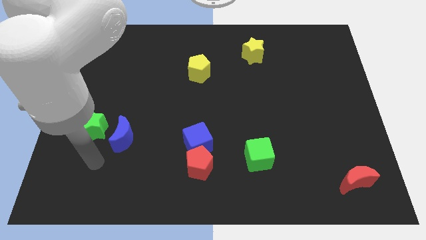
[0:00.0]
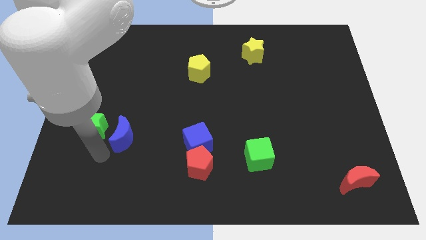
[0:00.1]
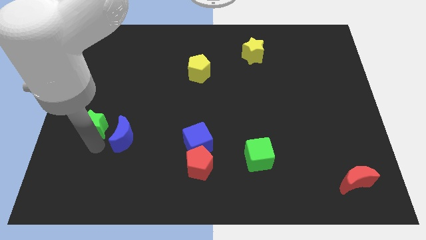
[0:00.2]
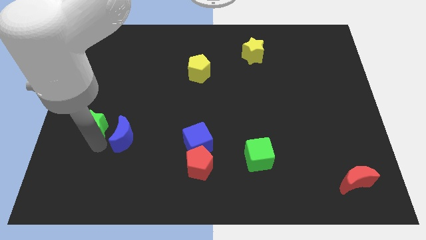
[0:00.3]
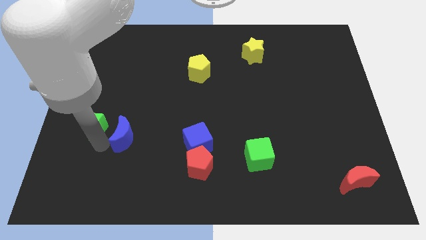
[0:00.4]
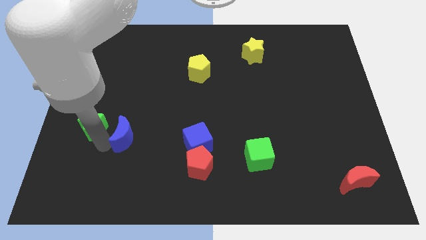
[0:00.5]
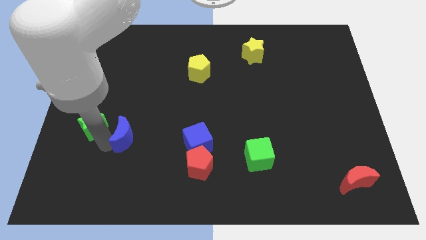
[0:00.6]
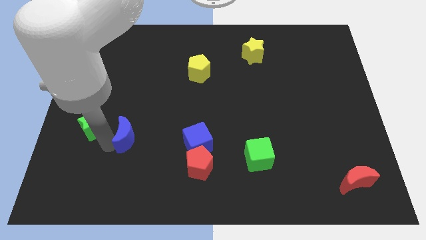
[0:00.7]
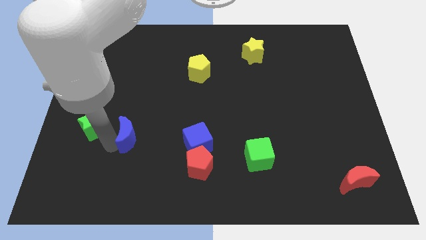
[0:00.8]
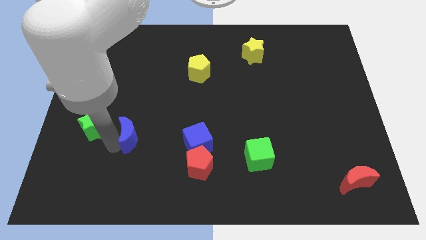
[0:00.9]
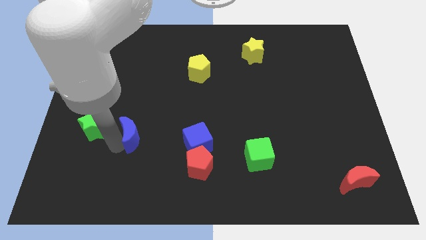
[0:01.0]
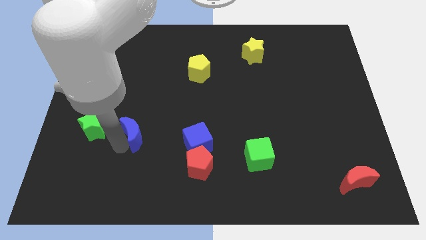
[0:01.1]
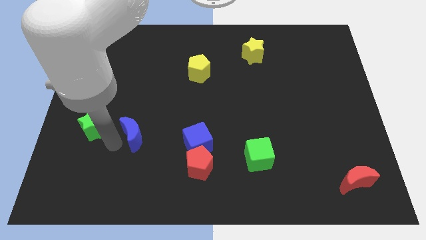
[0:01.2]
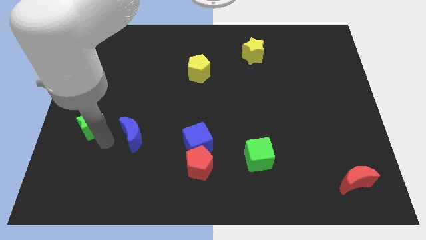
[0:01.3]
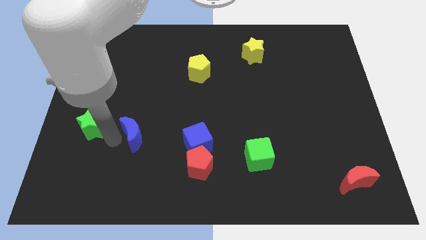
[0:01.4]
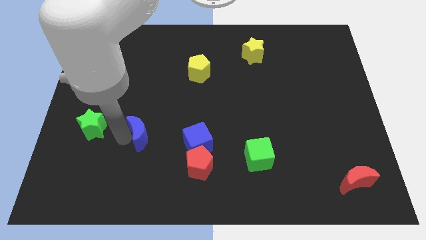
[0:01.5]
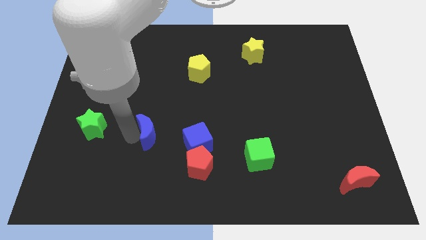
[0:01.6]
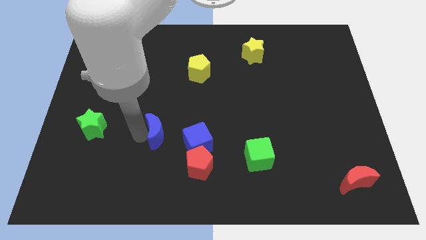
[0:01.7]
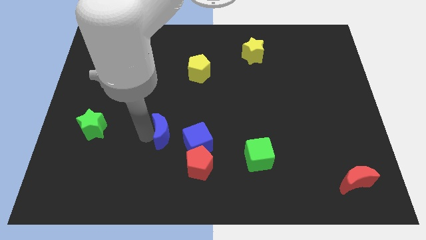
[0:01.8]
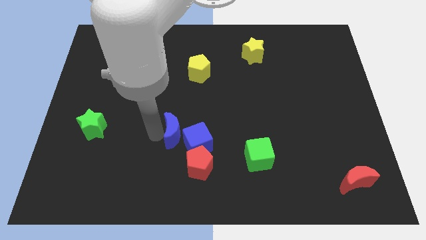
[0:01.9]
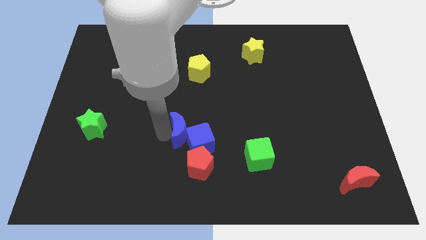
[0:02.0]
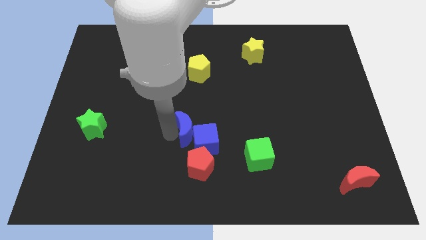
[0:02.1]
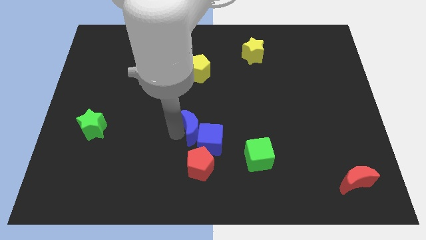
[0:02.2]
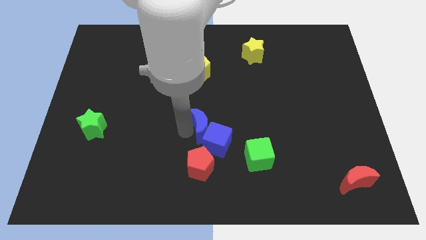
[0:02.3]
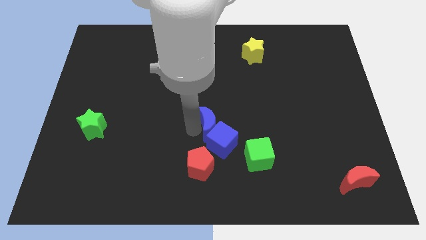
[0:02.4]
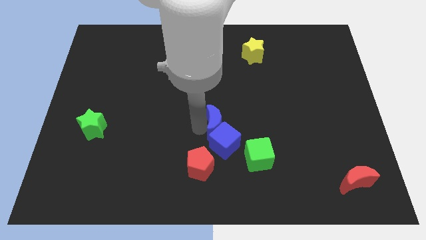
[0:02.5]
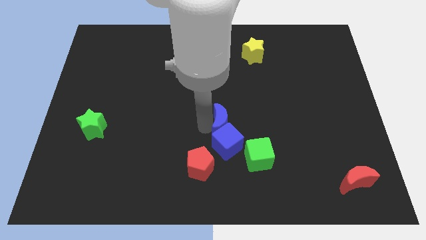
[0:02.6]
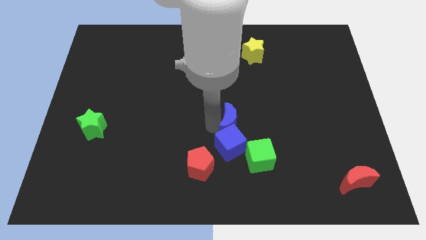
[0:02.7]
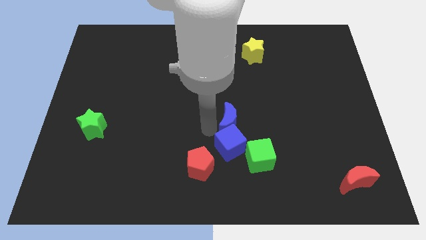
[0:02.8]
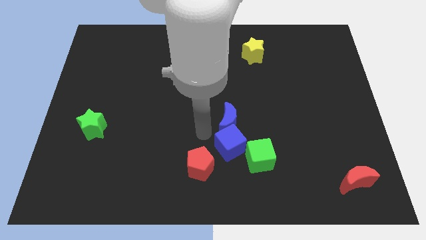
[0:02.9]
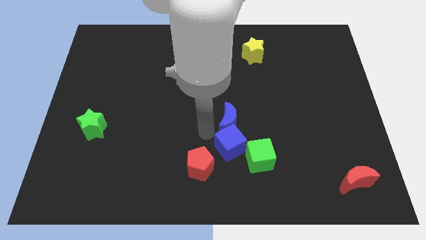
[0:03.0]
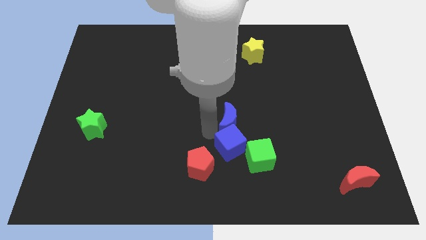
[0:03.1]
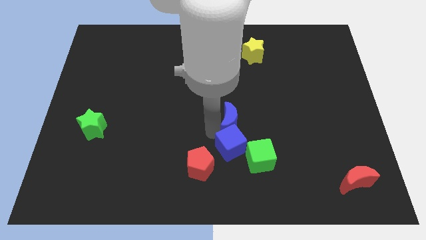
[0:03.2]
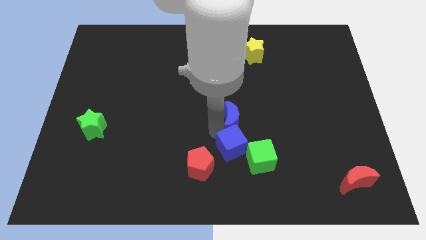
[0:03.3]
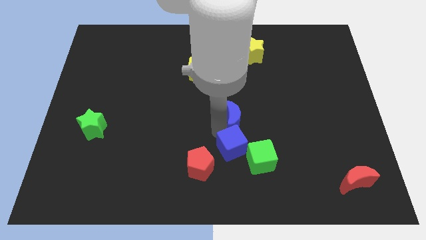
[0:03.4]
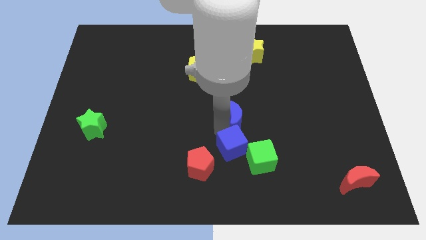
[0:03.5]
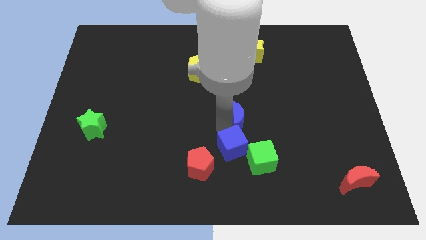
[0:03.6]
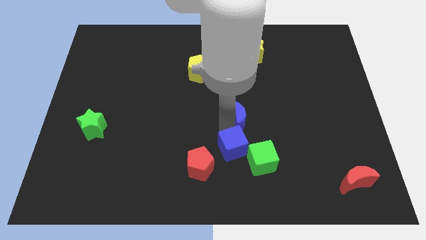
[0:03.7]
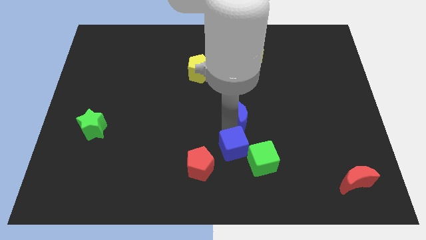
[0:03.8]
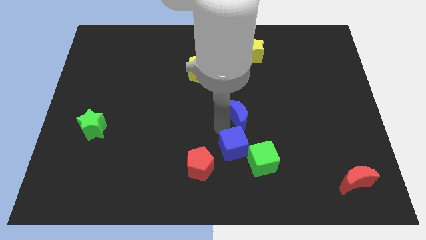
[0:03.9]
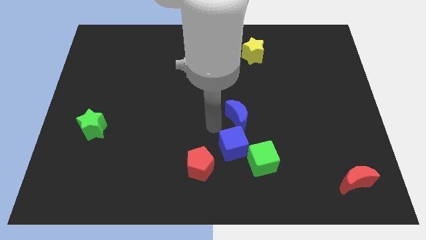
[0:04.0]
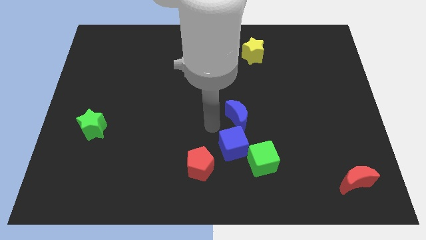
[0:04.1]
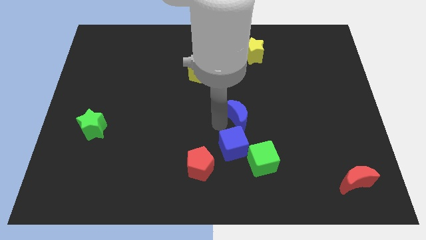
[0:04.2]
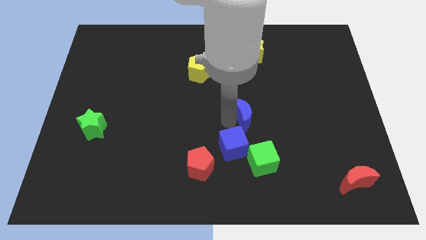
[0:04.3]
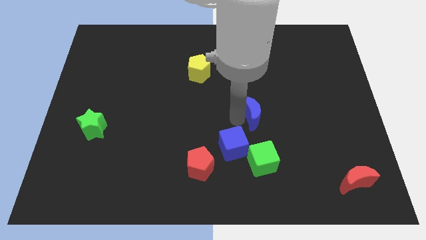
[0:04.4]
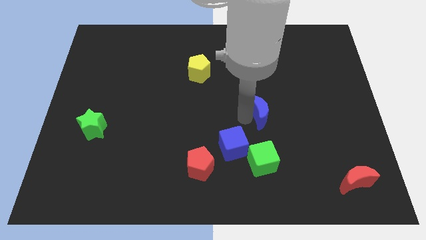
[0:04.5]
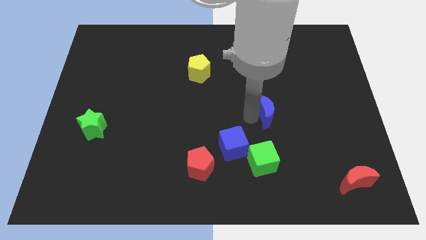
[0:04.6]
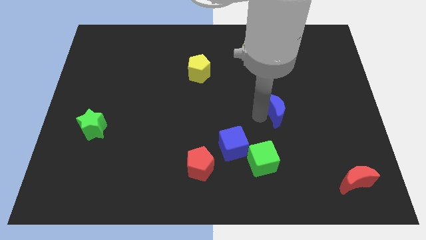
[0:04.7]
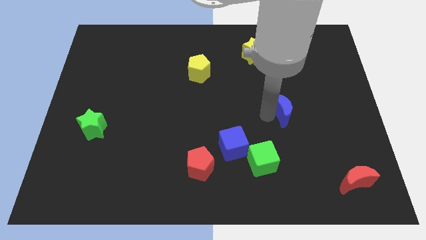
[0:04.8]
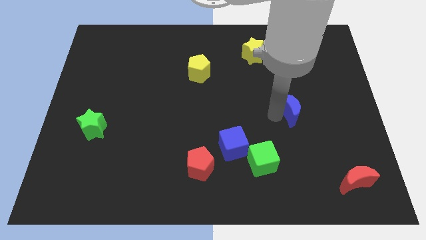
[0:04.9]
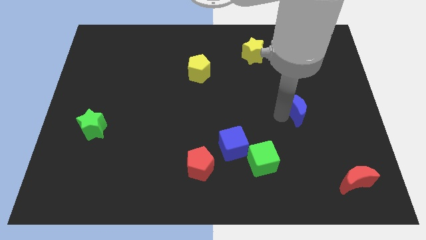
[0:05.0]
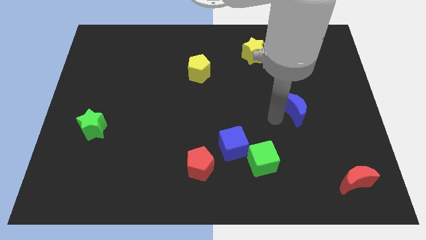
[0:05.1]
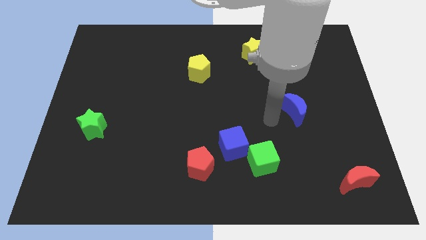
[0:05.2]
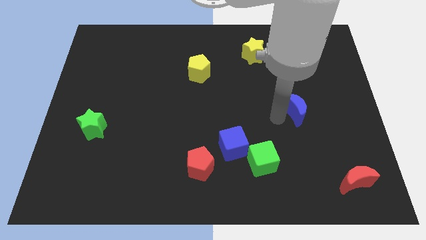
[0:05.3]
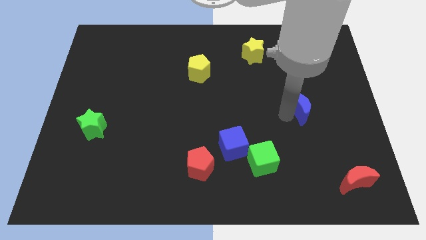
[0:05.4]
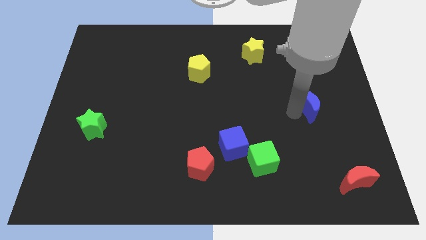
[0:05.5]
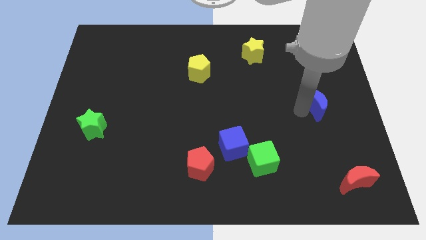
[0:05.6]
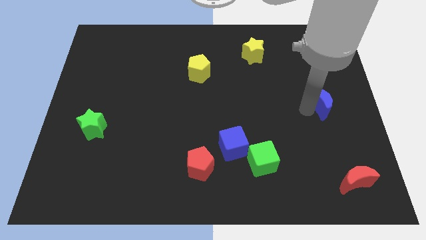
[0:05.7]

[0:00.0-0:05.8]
move the blue moon to the right side of the board

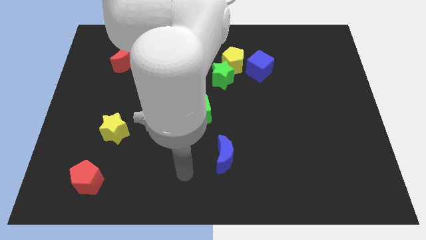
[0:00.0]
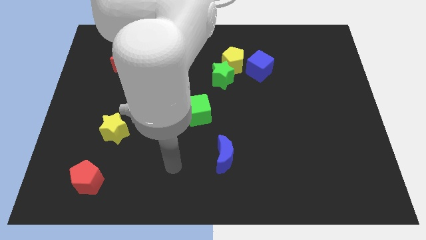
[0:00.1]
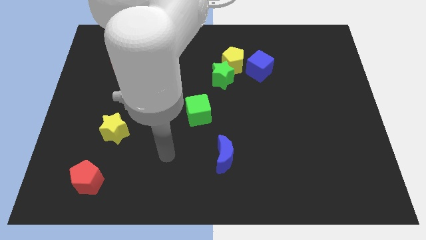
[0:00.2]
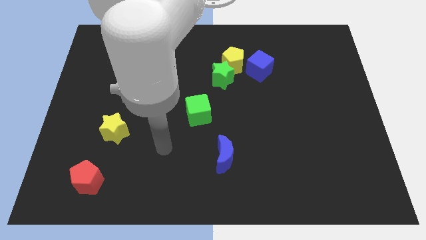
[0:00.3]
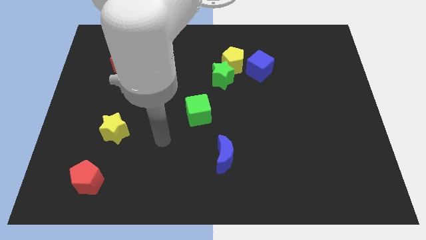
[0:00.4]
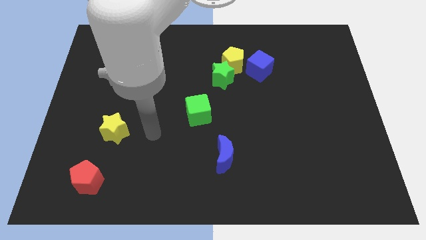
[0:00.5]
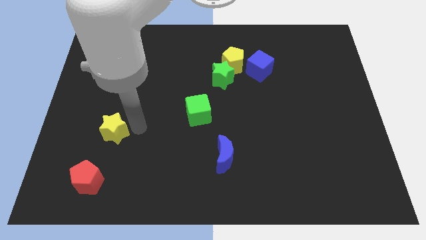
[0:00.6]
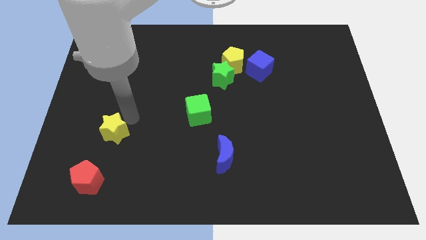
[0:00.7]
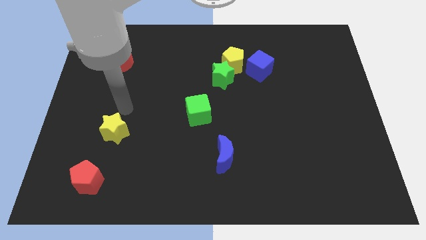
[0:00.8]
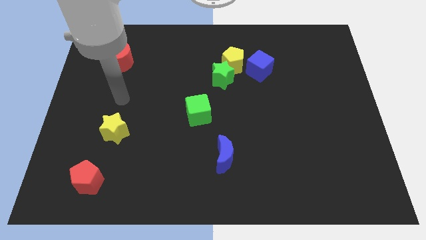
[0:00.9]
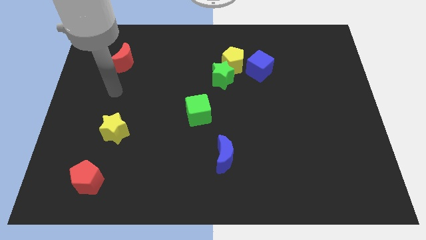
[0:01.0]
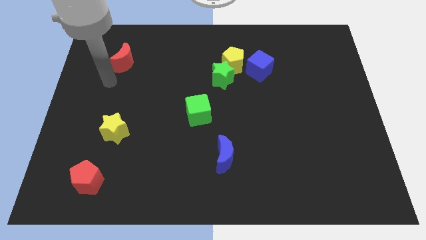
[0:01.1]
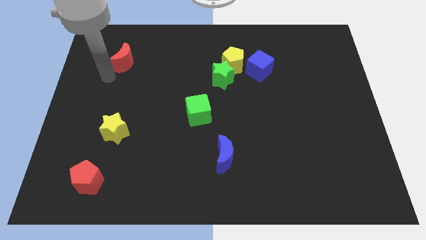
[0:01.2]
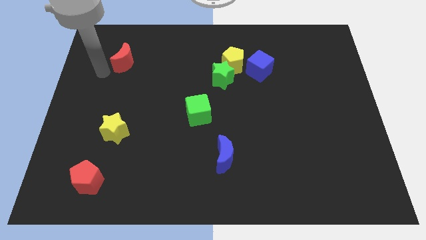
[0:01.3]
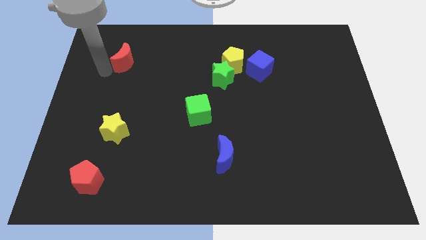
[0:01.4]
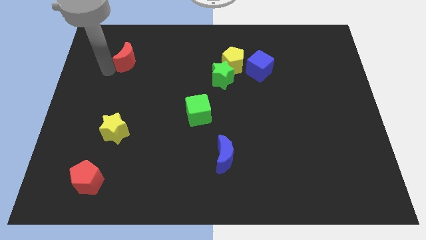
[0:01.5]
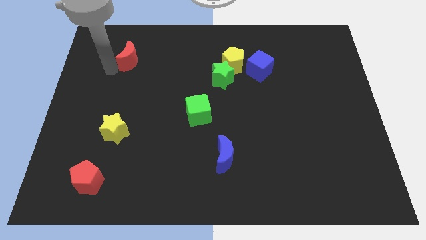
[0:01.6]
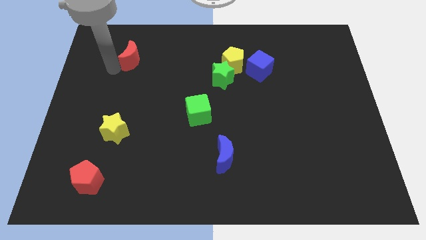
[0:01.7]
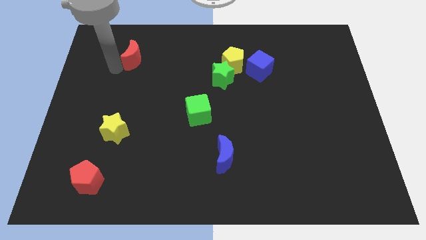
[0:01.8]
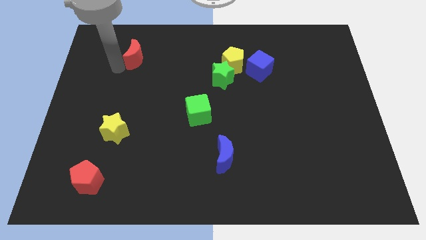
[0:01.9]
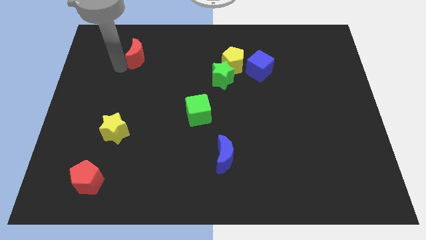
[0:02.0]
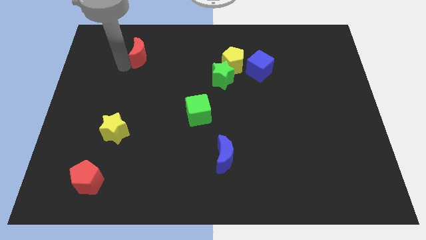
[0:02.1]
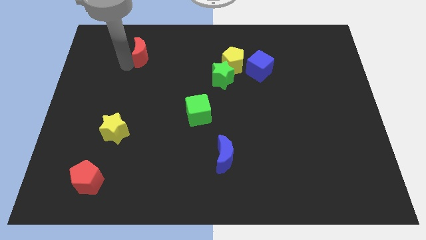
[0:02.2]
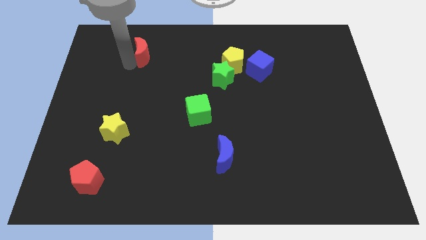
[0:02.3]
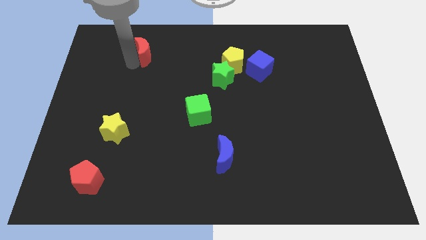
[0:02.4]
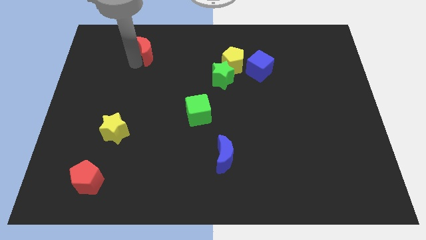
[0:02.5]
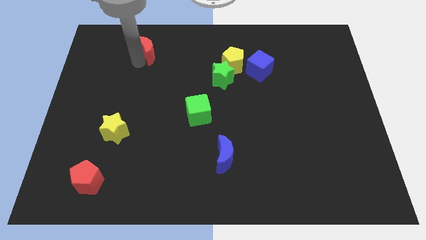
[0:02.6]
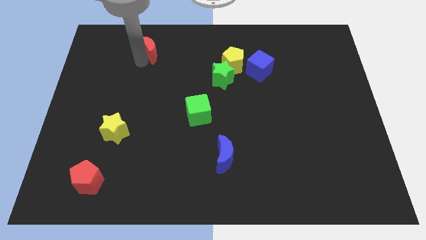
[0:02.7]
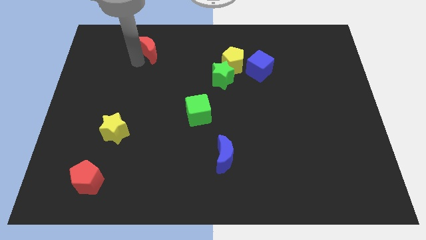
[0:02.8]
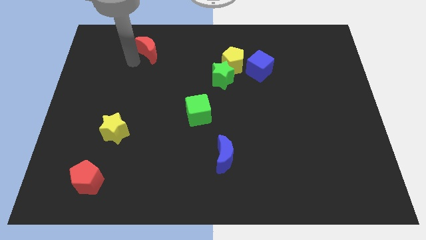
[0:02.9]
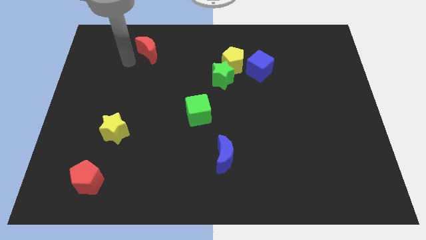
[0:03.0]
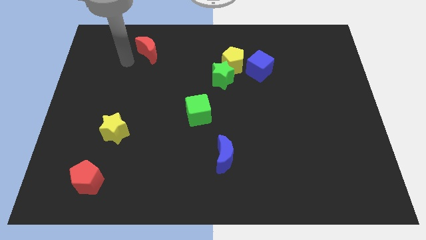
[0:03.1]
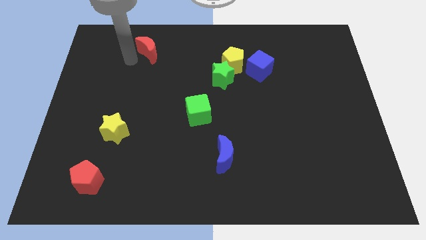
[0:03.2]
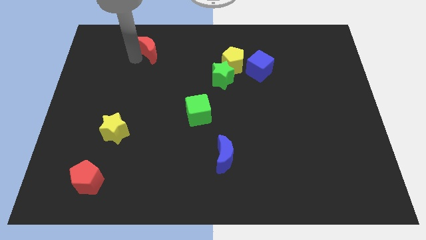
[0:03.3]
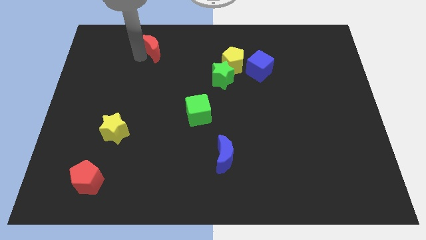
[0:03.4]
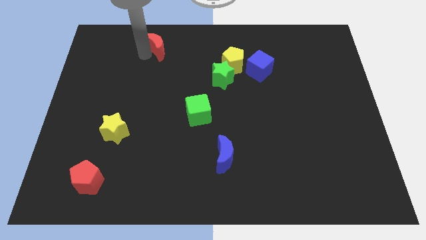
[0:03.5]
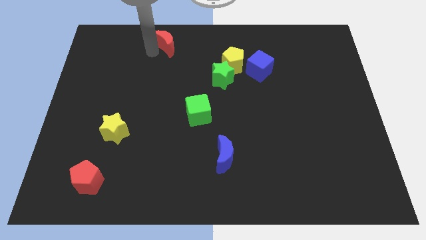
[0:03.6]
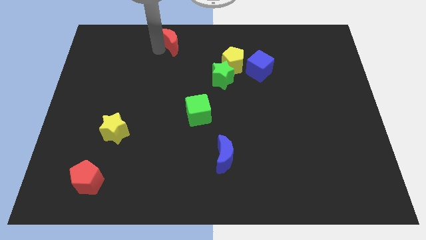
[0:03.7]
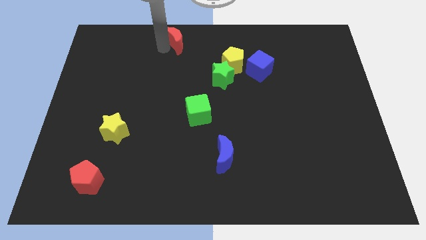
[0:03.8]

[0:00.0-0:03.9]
put the red moon to the towards your base
